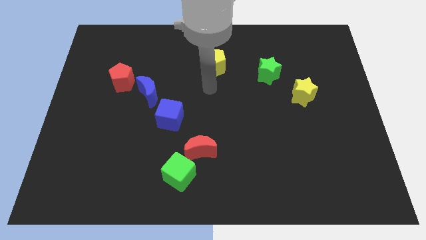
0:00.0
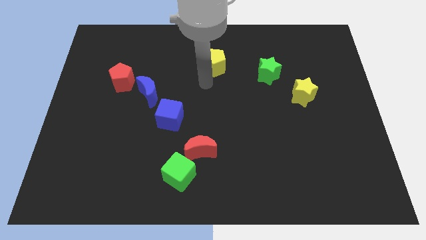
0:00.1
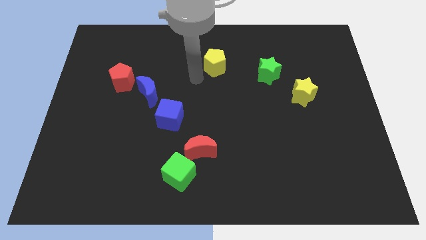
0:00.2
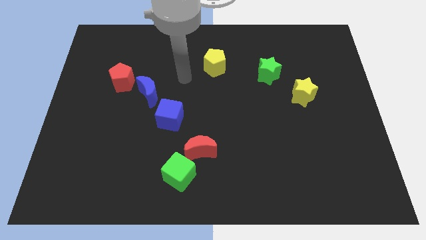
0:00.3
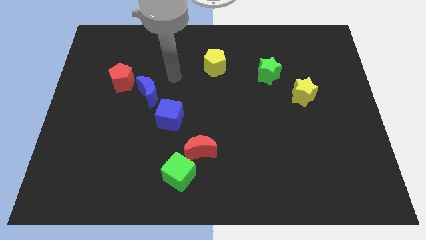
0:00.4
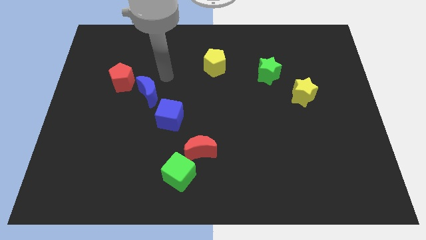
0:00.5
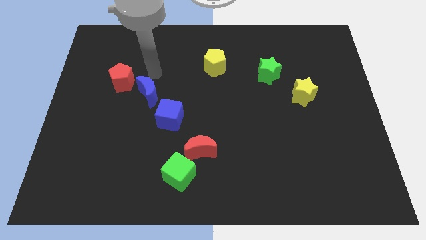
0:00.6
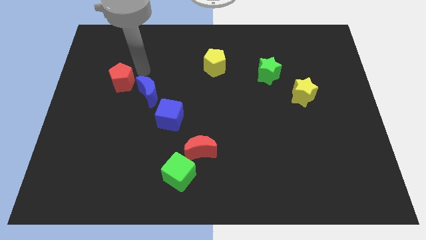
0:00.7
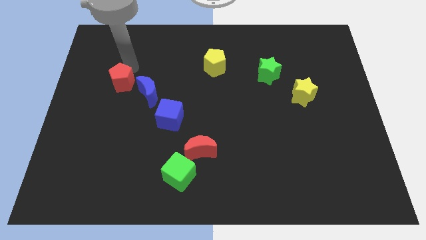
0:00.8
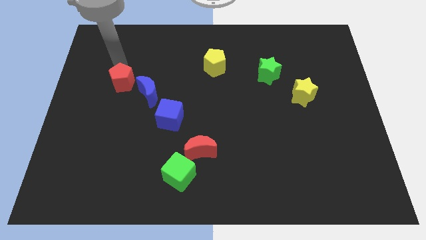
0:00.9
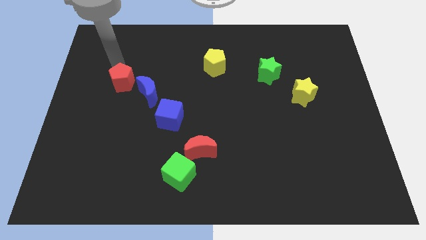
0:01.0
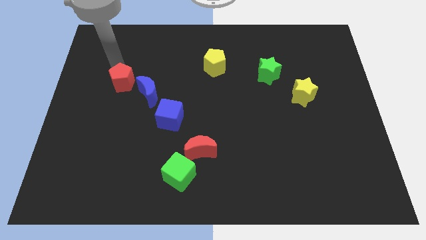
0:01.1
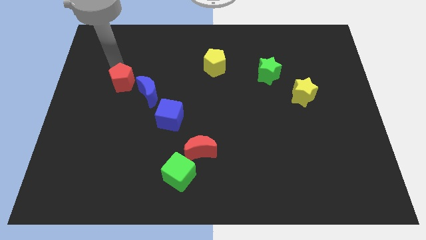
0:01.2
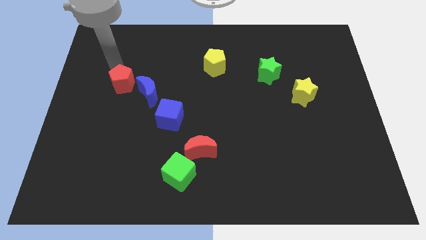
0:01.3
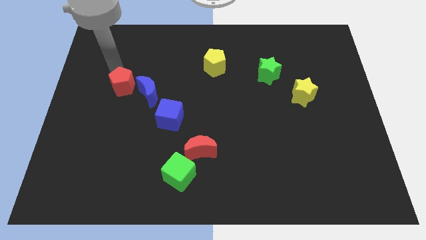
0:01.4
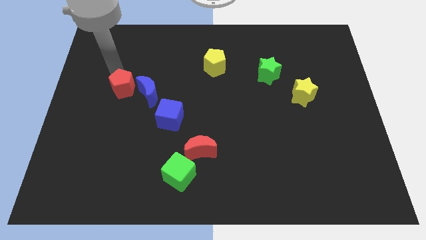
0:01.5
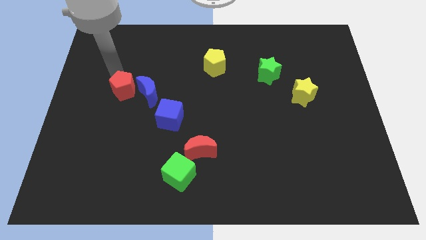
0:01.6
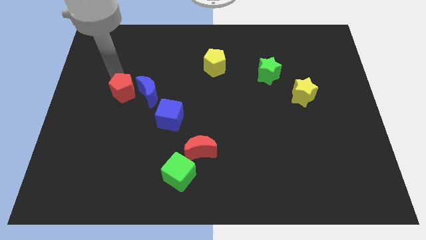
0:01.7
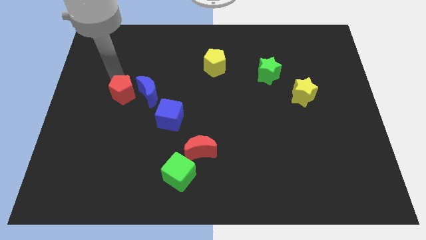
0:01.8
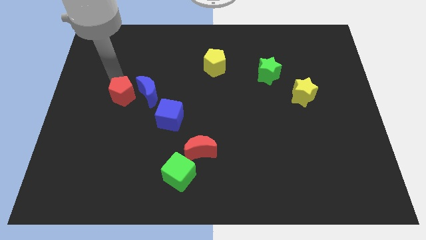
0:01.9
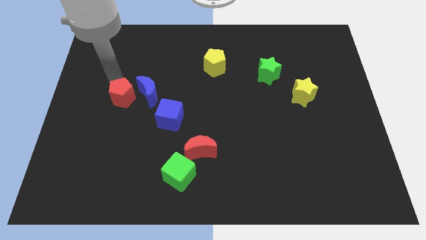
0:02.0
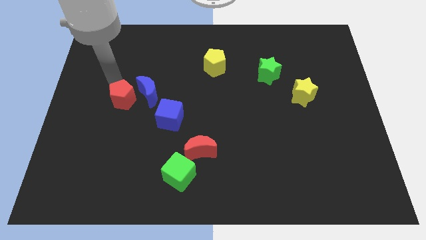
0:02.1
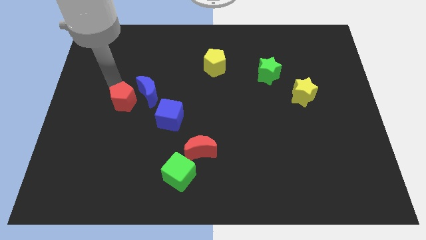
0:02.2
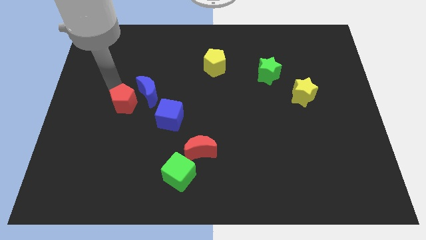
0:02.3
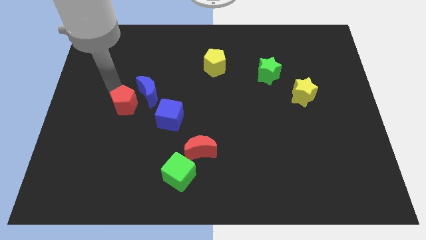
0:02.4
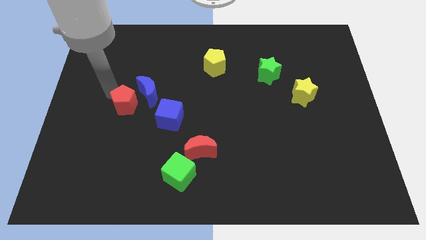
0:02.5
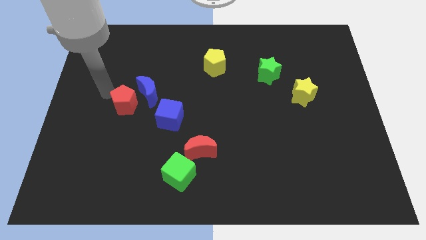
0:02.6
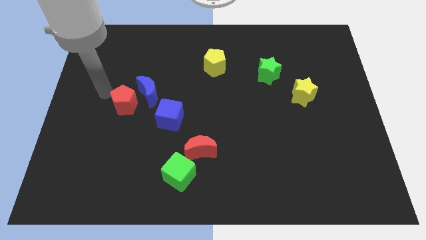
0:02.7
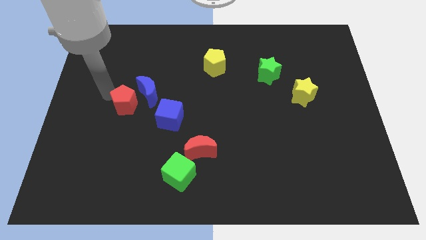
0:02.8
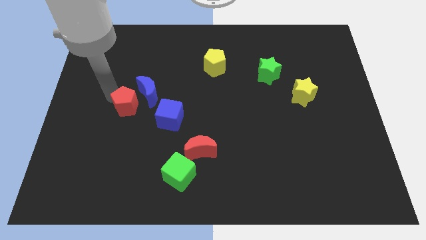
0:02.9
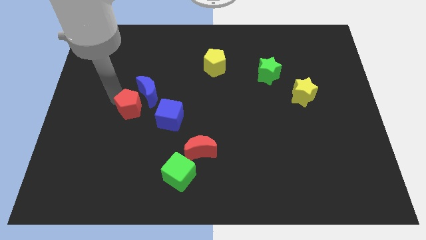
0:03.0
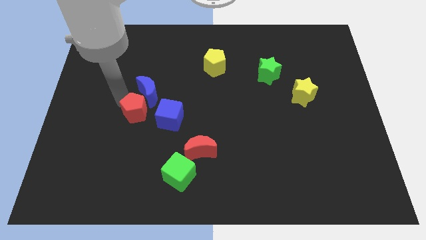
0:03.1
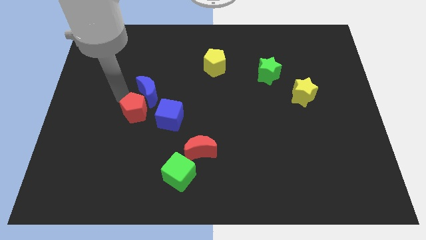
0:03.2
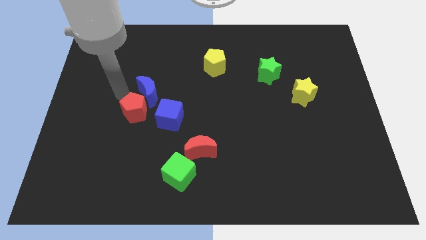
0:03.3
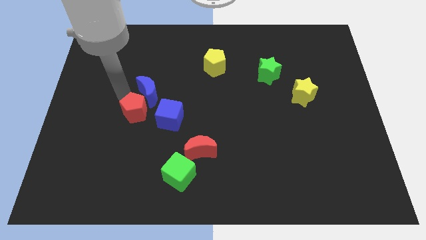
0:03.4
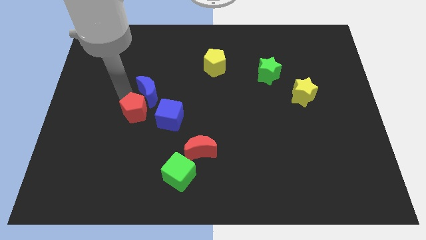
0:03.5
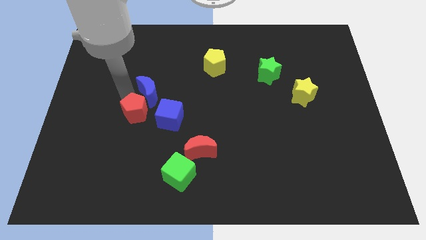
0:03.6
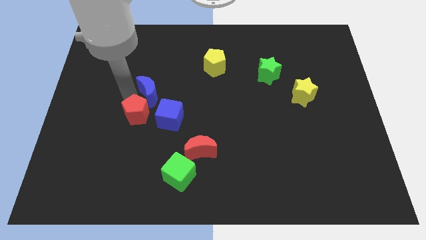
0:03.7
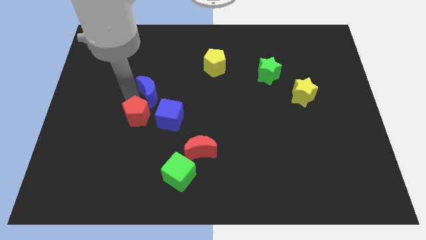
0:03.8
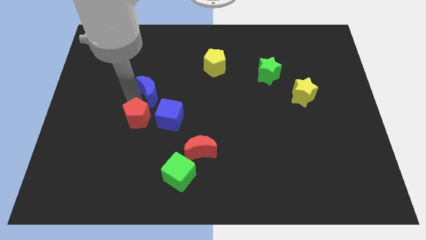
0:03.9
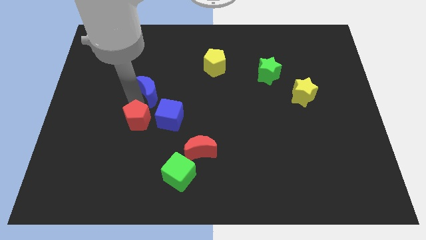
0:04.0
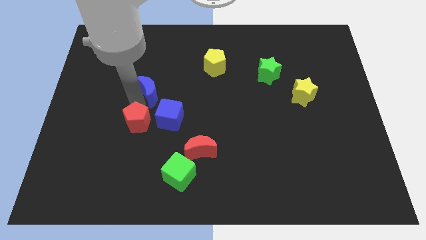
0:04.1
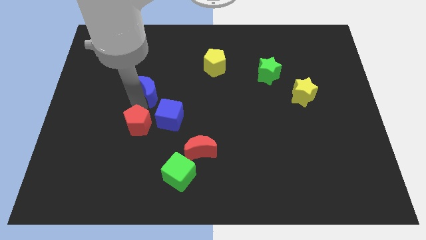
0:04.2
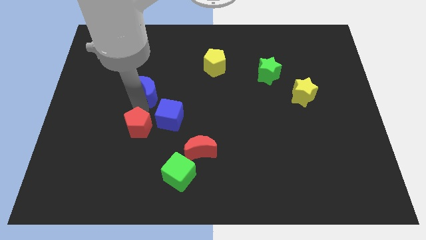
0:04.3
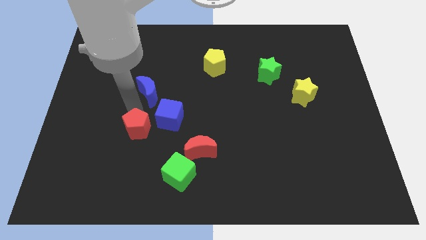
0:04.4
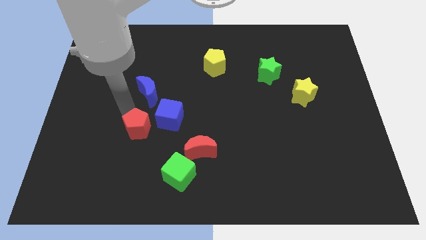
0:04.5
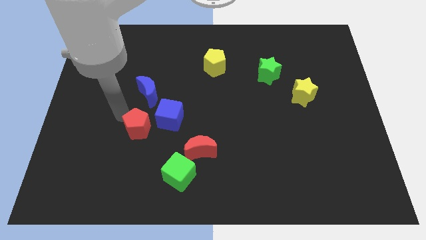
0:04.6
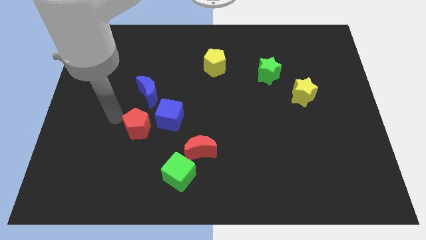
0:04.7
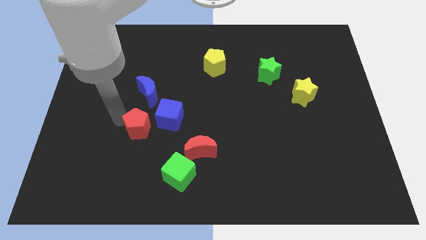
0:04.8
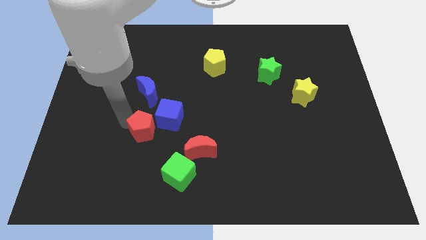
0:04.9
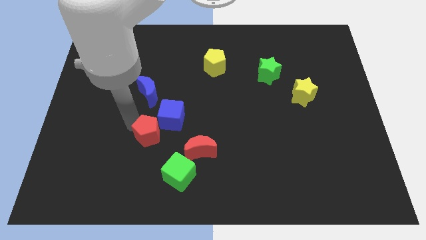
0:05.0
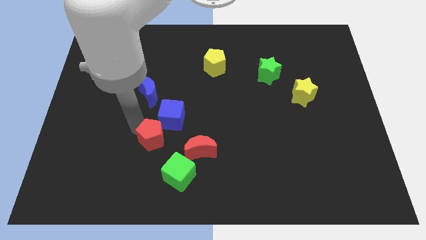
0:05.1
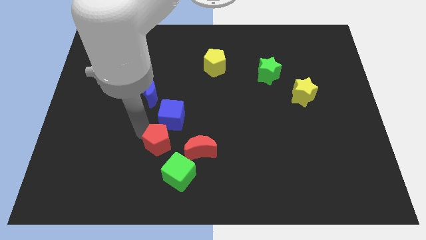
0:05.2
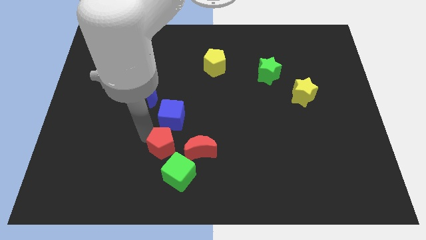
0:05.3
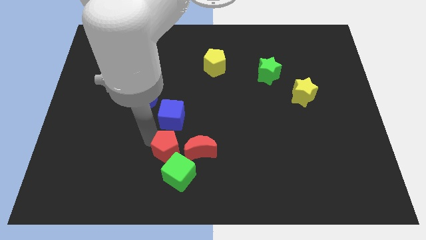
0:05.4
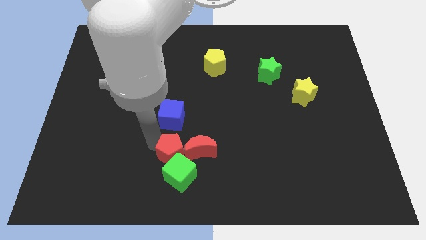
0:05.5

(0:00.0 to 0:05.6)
put the red pentagon to the red moon
